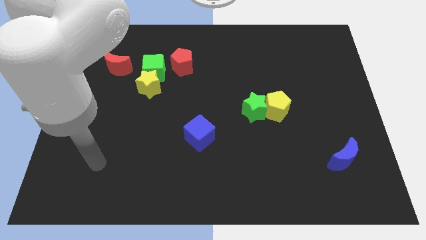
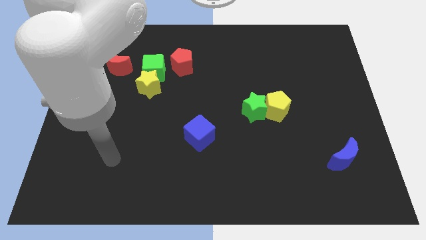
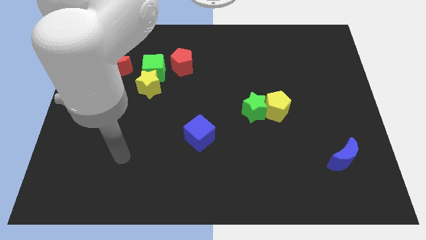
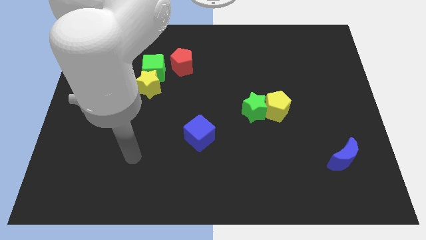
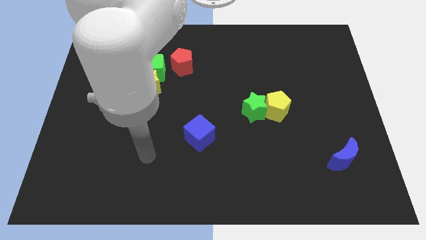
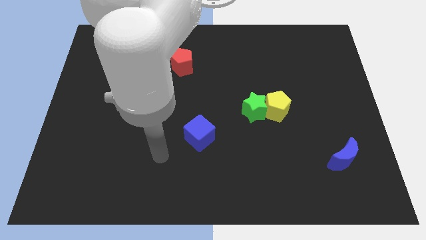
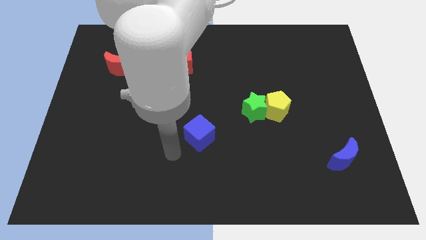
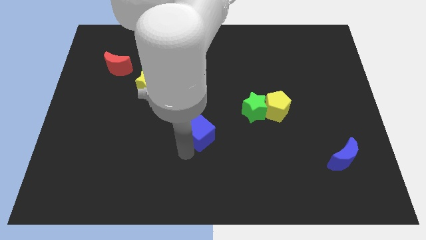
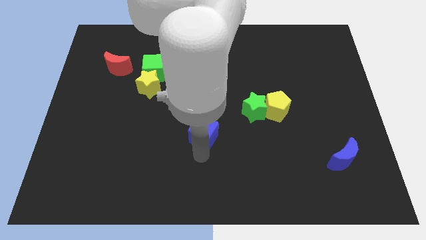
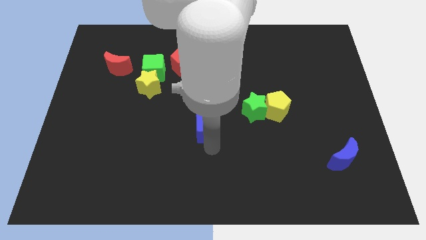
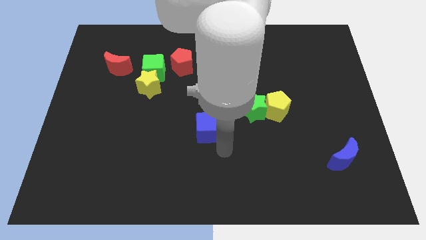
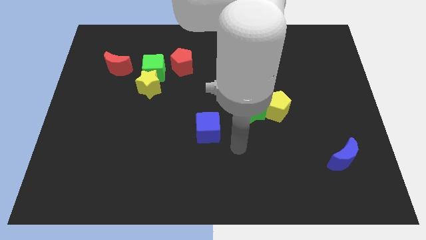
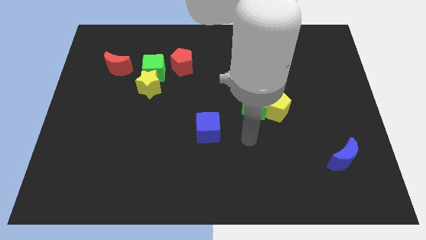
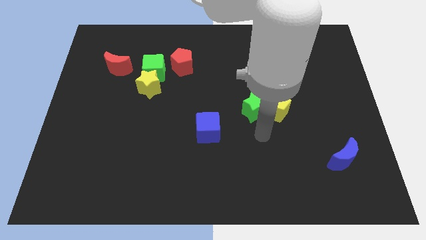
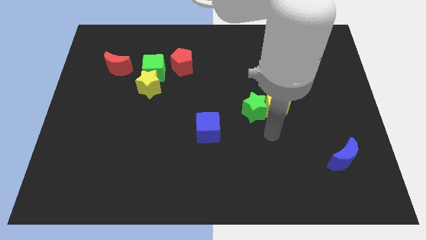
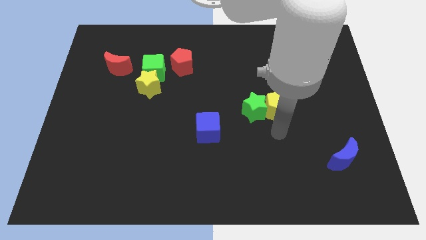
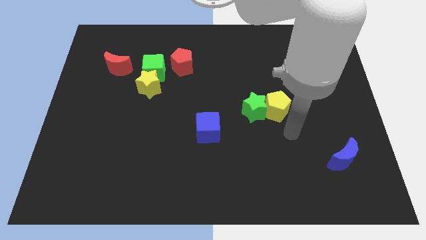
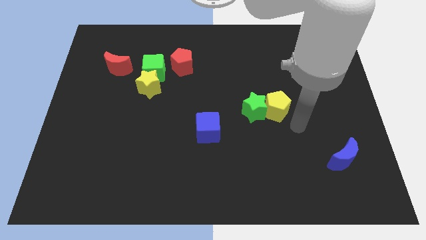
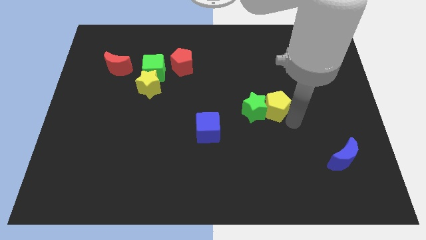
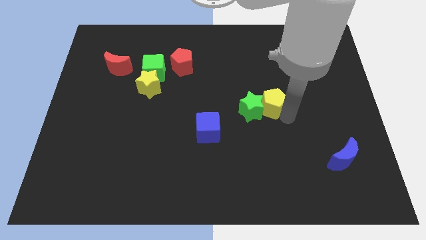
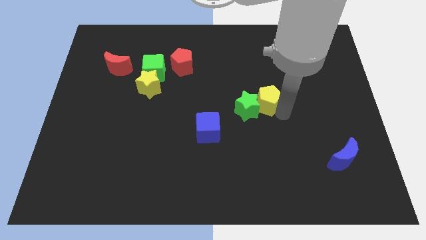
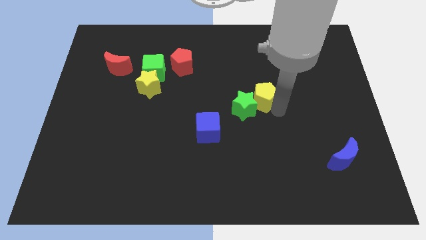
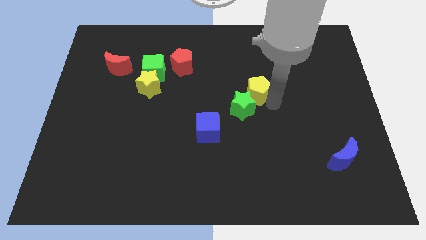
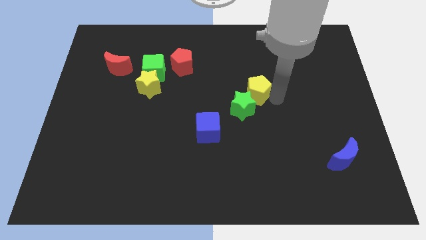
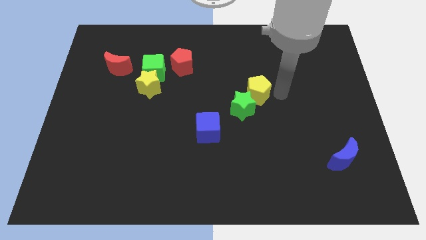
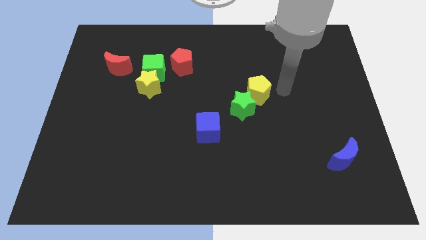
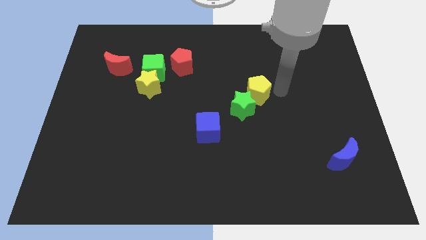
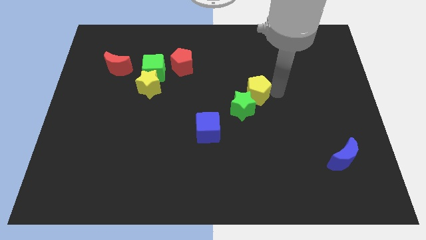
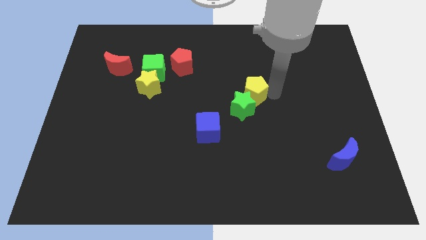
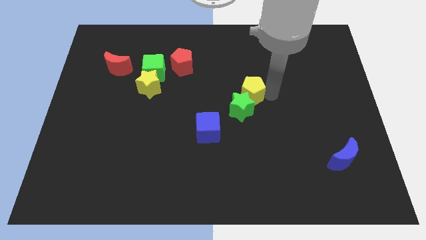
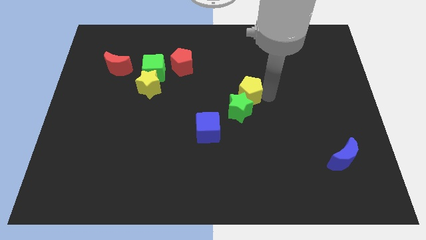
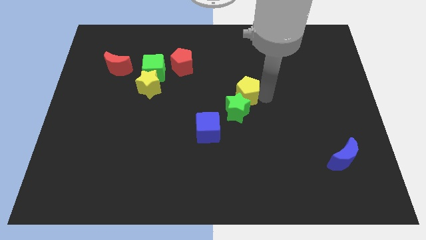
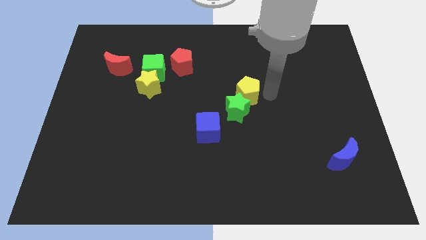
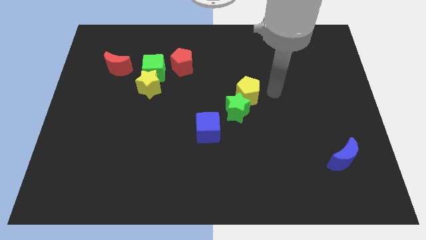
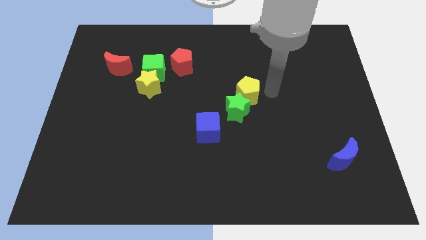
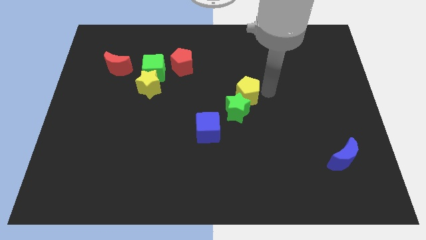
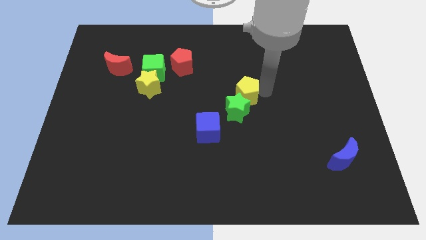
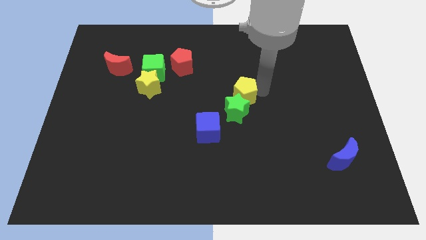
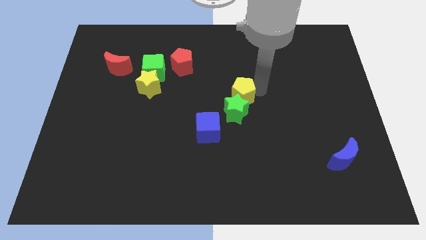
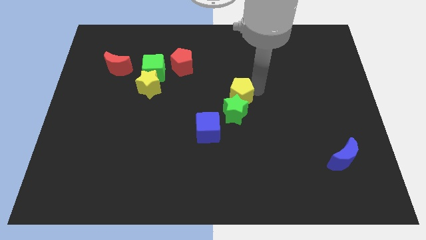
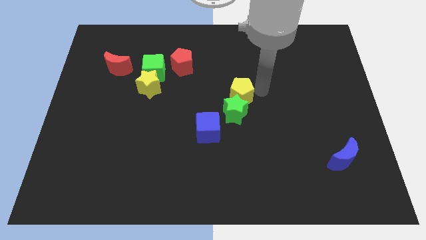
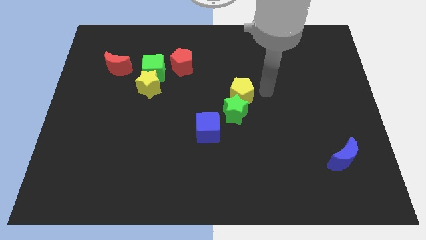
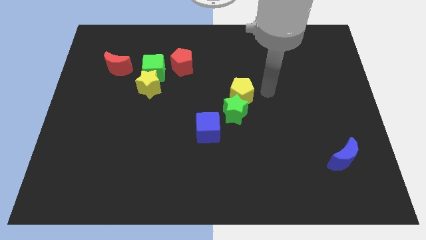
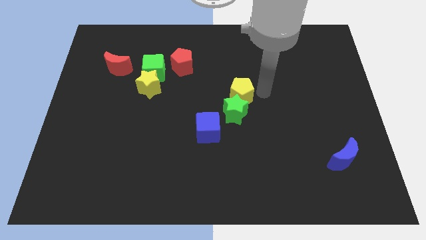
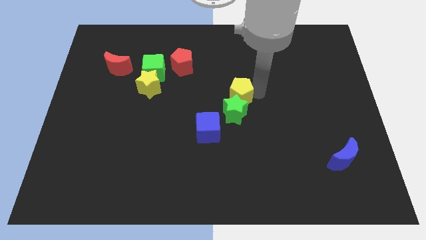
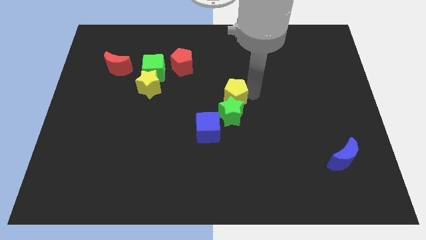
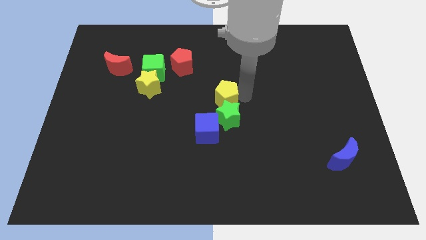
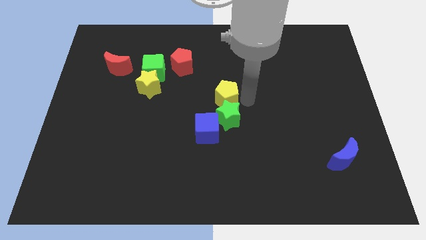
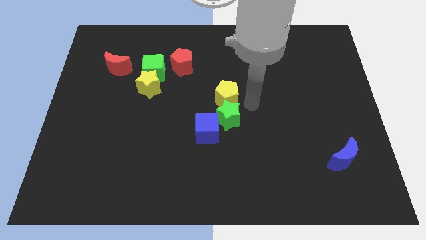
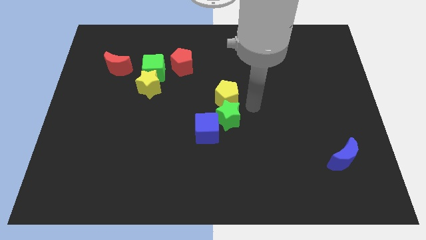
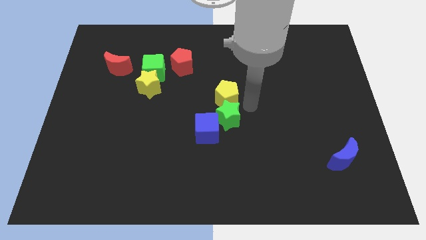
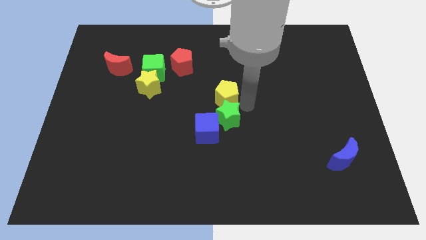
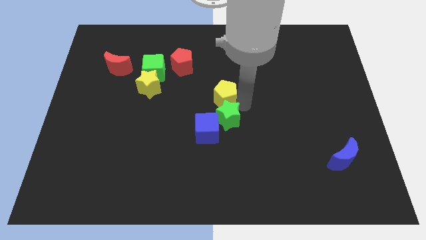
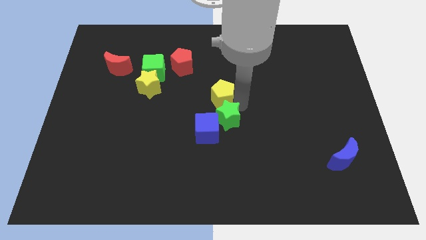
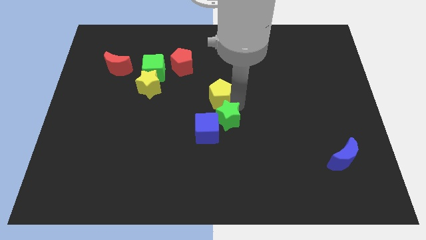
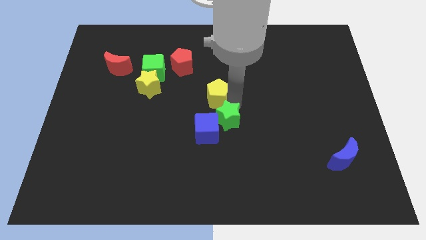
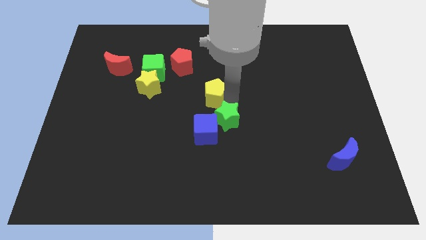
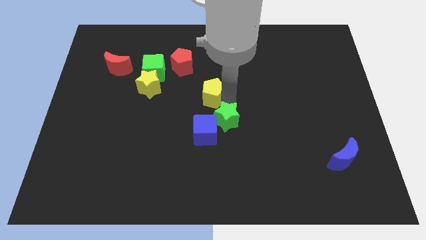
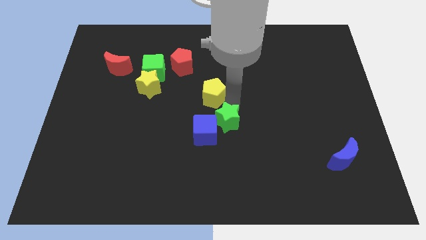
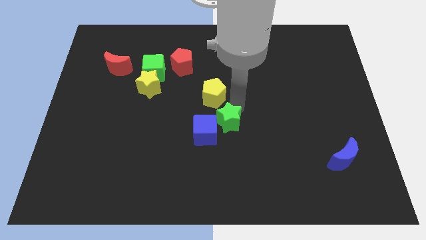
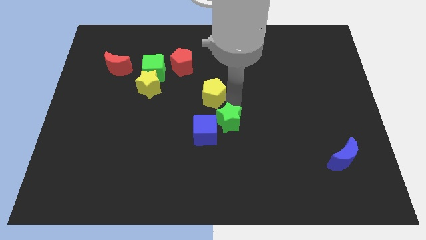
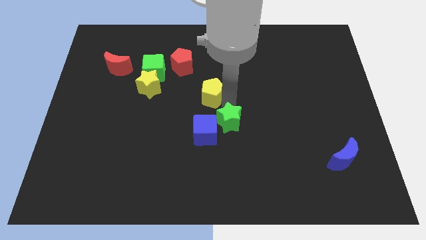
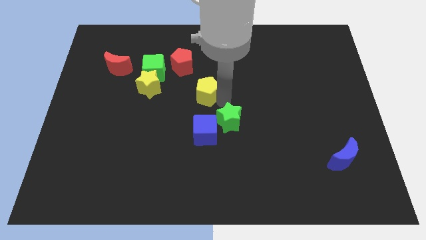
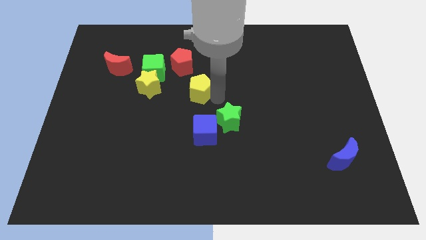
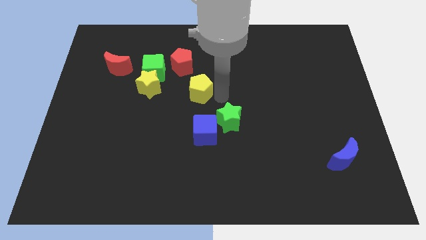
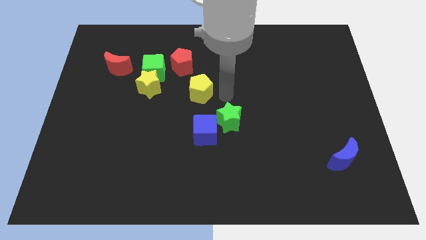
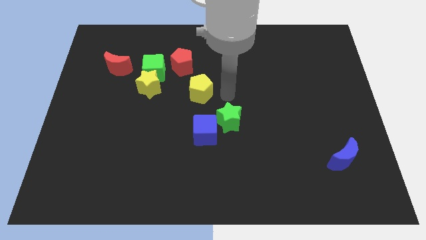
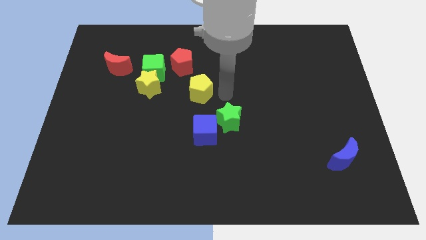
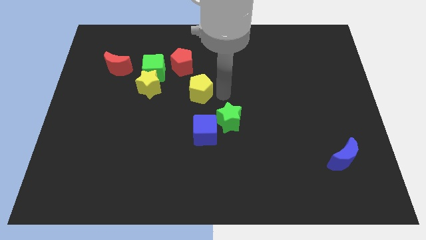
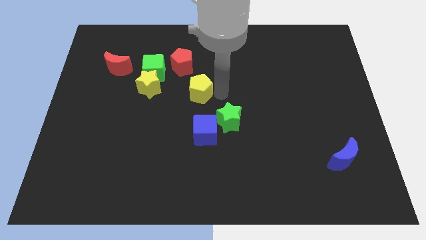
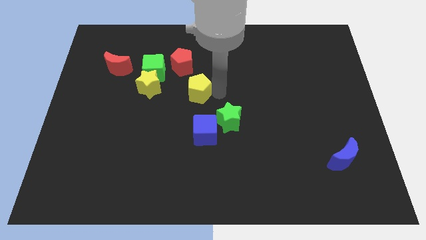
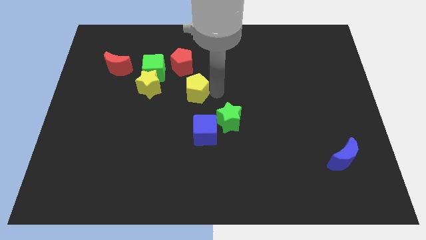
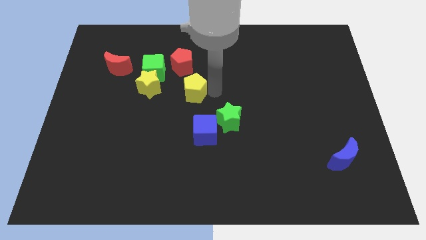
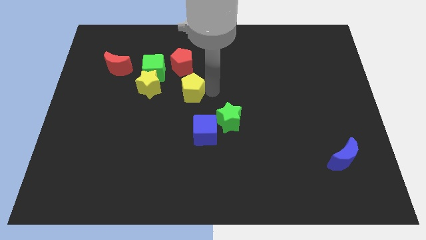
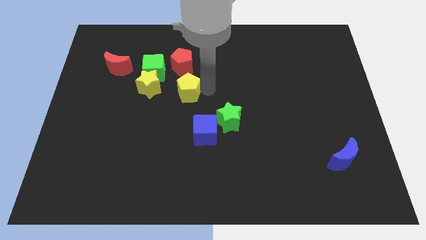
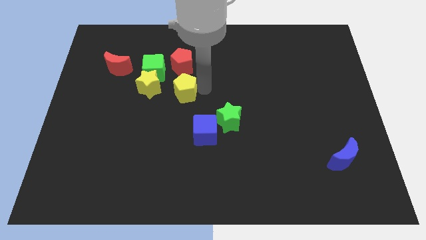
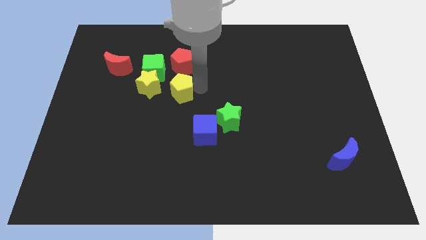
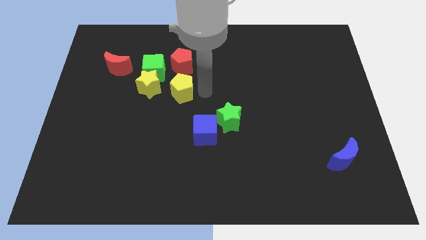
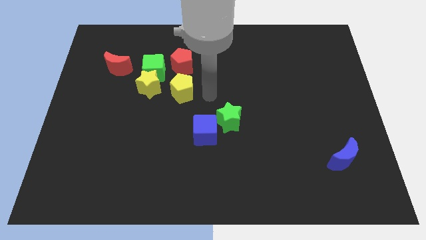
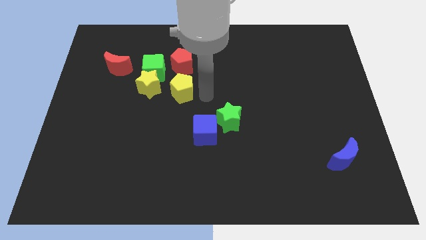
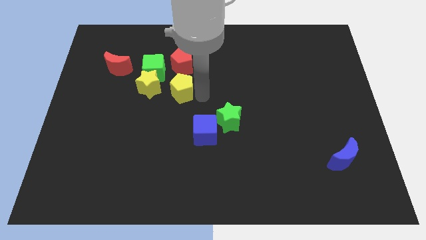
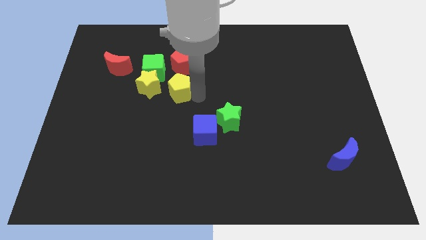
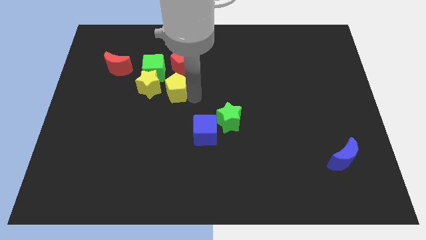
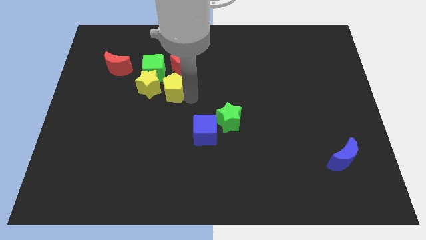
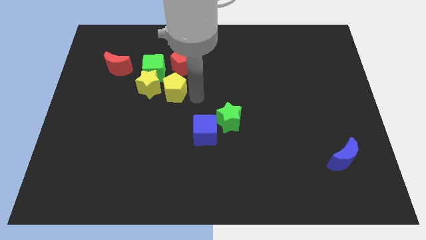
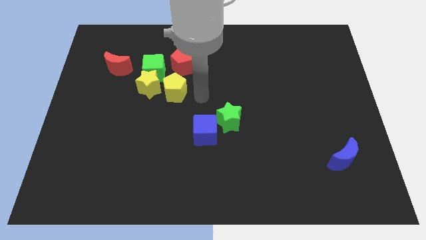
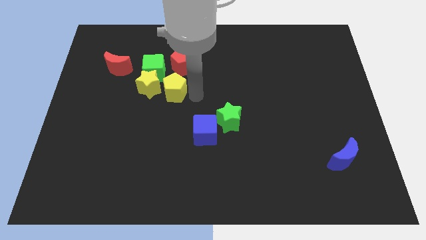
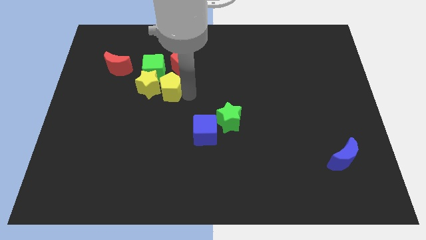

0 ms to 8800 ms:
slide the yellow pentagon towards the yellow star
